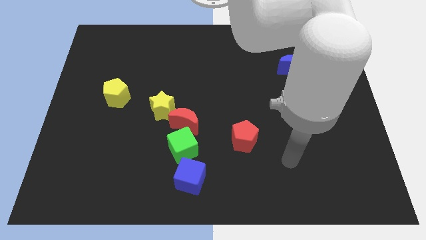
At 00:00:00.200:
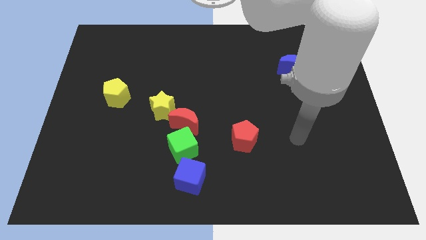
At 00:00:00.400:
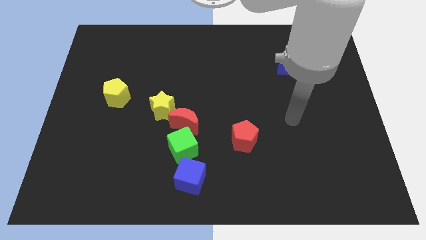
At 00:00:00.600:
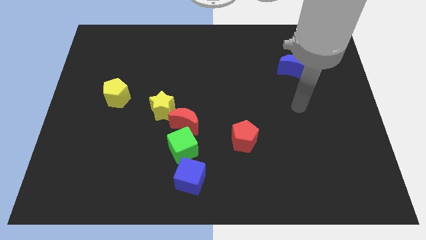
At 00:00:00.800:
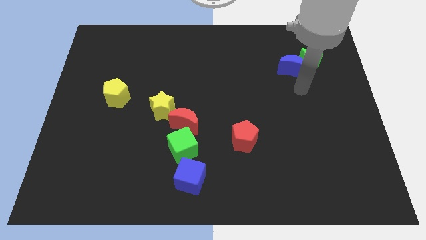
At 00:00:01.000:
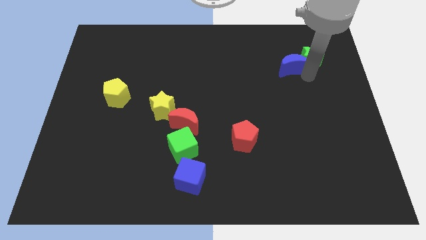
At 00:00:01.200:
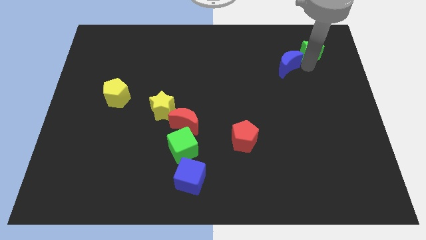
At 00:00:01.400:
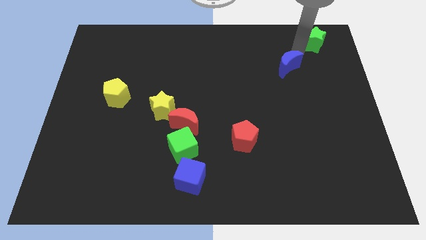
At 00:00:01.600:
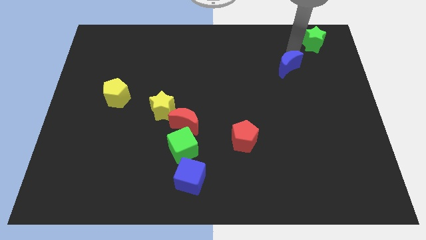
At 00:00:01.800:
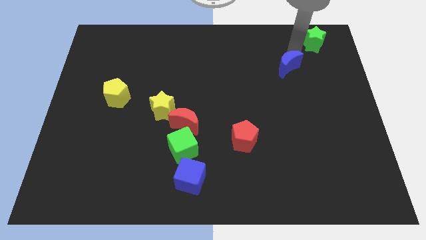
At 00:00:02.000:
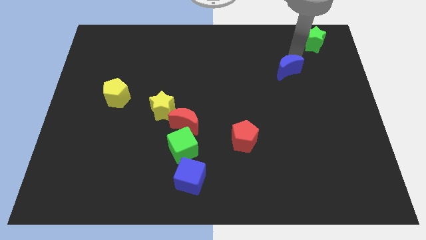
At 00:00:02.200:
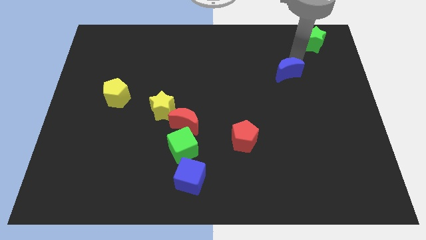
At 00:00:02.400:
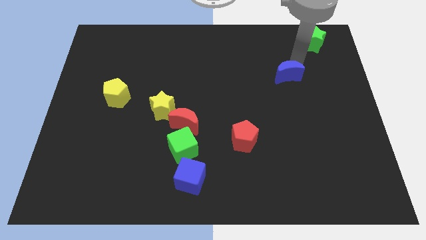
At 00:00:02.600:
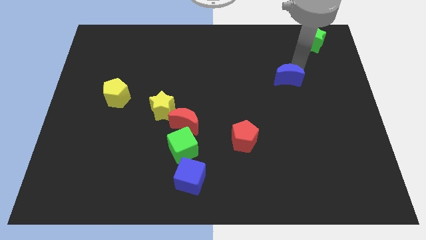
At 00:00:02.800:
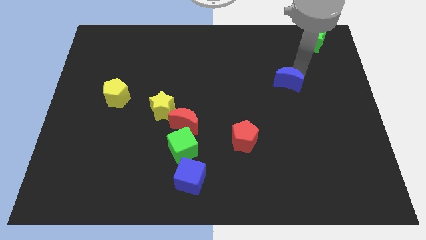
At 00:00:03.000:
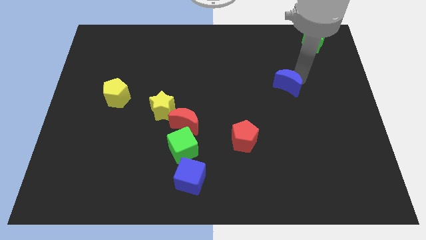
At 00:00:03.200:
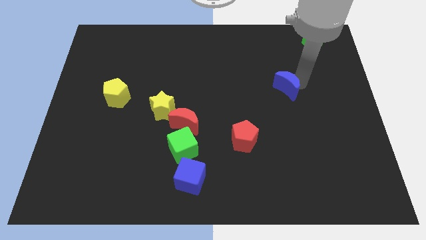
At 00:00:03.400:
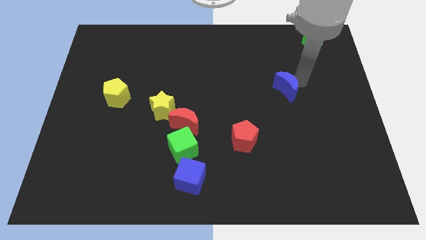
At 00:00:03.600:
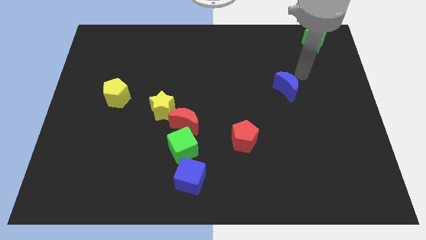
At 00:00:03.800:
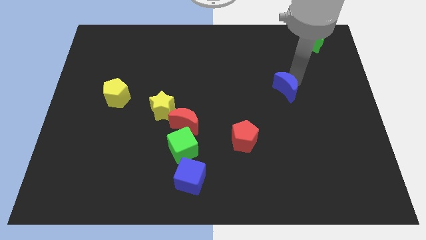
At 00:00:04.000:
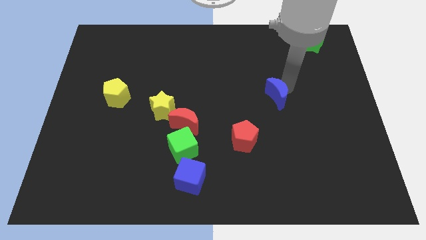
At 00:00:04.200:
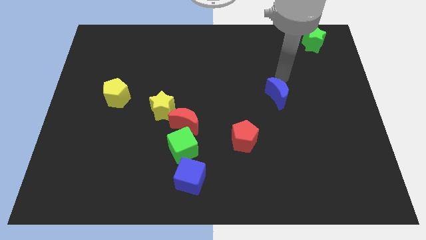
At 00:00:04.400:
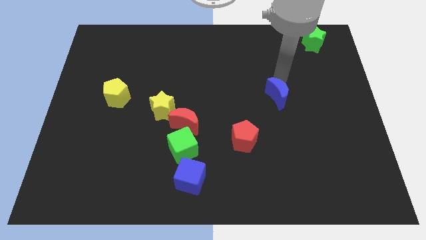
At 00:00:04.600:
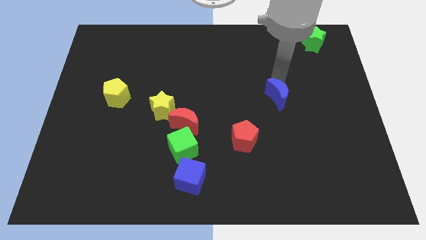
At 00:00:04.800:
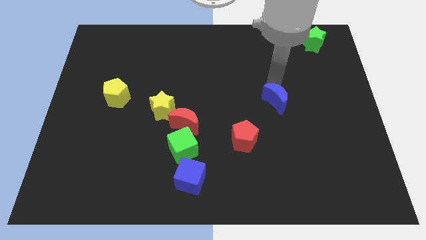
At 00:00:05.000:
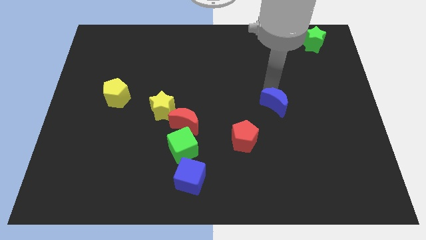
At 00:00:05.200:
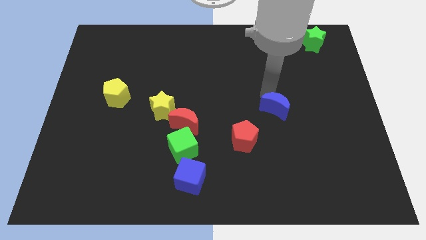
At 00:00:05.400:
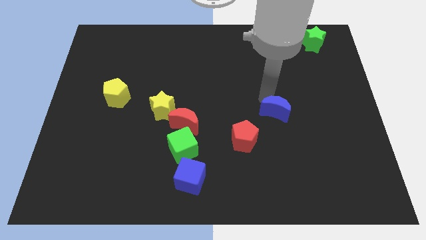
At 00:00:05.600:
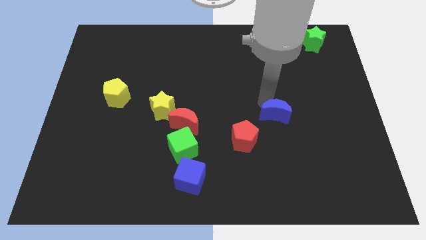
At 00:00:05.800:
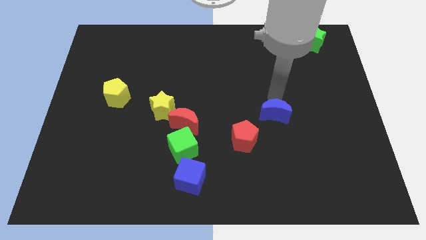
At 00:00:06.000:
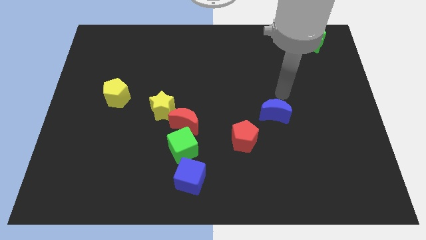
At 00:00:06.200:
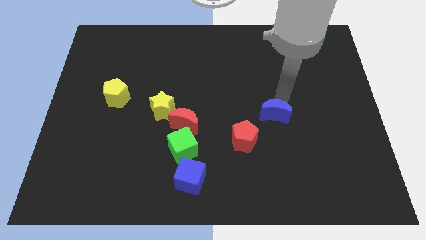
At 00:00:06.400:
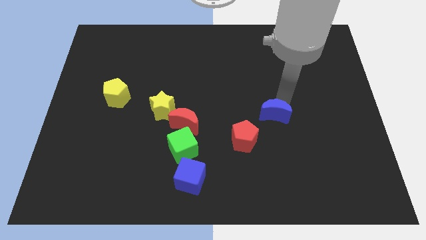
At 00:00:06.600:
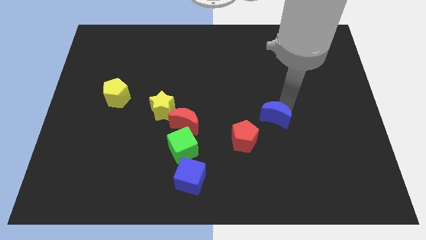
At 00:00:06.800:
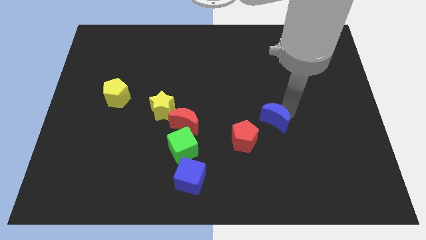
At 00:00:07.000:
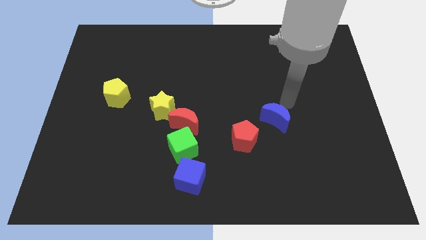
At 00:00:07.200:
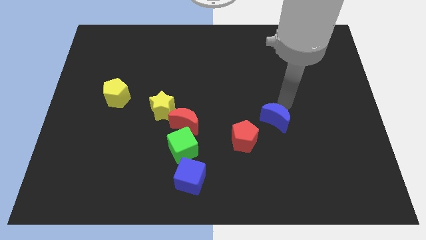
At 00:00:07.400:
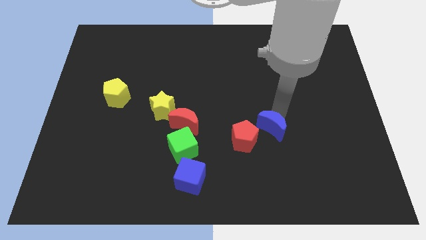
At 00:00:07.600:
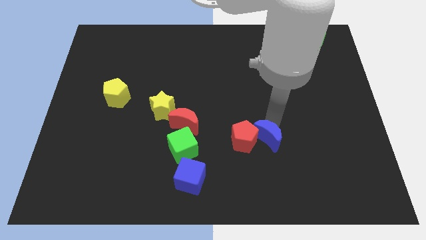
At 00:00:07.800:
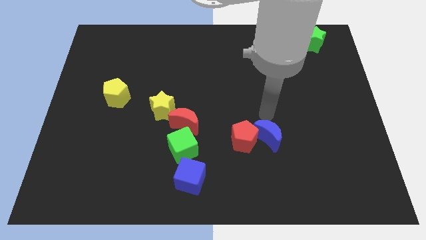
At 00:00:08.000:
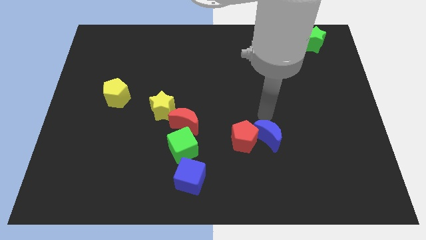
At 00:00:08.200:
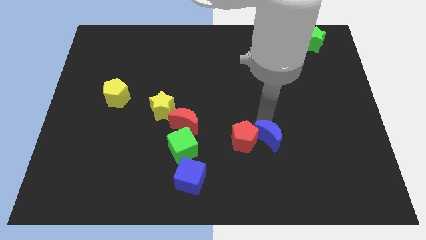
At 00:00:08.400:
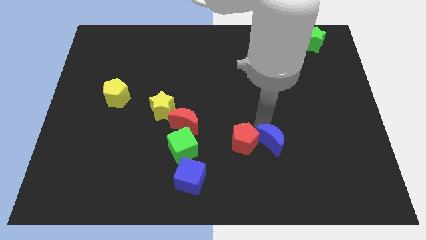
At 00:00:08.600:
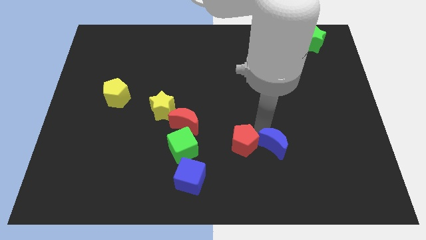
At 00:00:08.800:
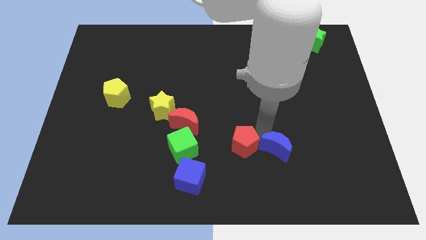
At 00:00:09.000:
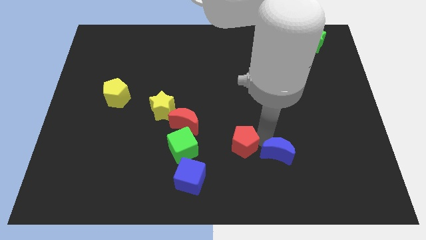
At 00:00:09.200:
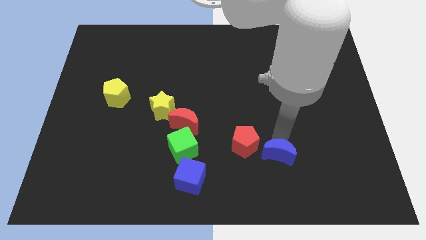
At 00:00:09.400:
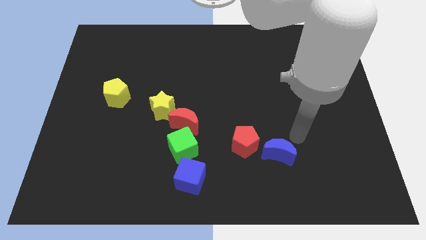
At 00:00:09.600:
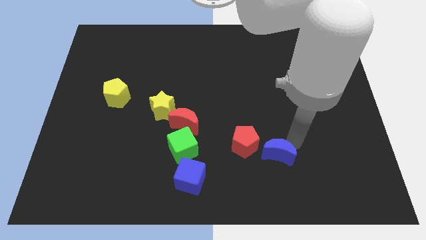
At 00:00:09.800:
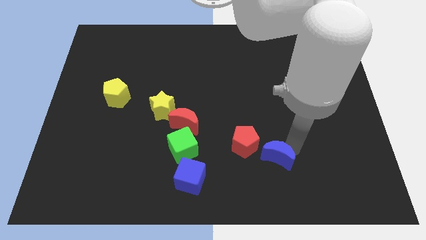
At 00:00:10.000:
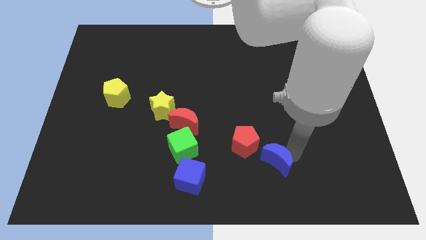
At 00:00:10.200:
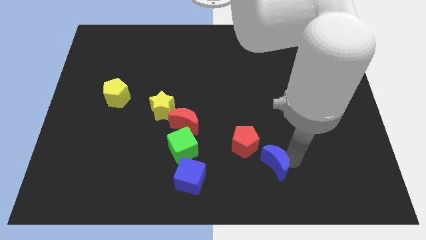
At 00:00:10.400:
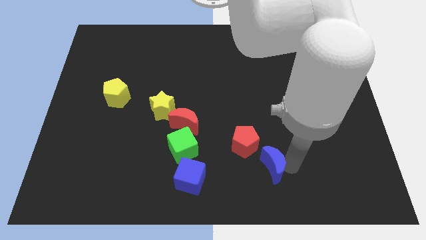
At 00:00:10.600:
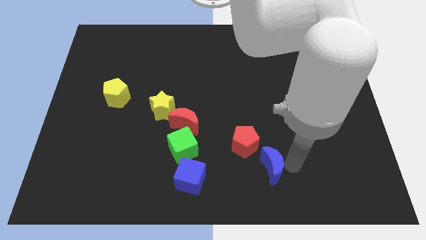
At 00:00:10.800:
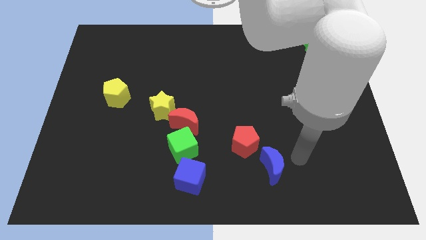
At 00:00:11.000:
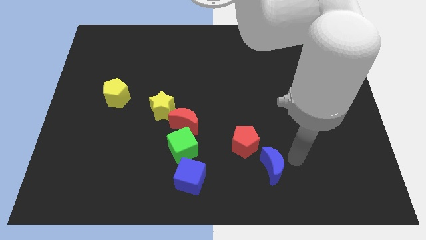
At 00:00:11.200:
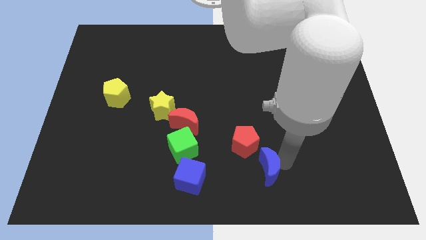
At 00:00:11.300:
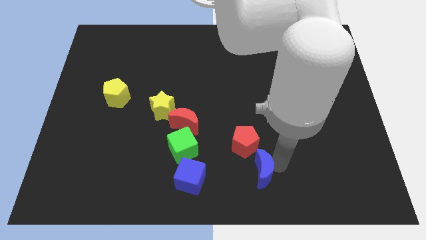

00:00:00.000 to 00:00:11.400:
slide the blue moon to the bottom
